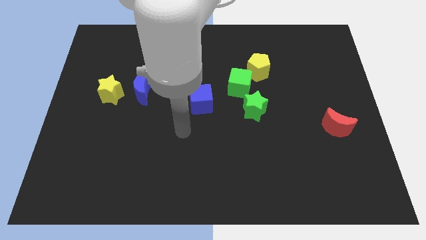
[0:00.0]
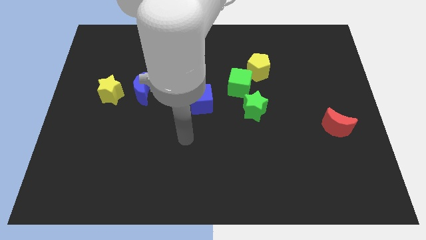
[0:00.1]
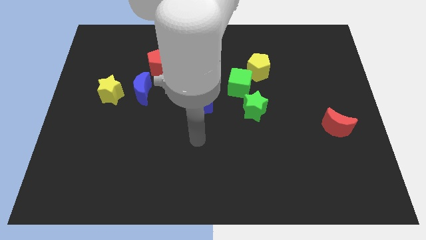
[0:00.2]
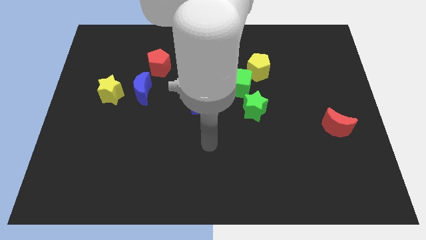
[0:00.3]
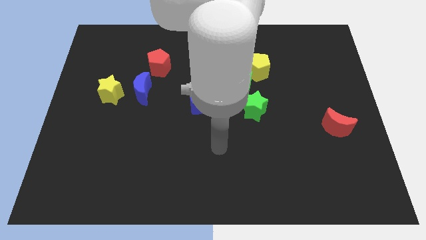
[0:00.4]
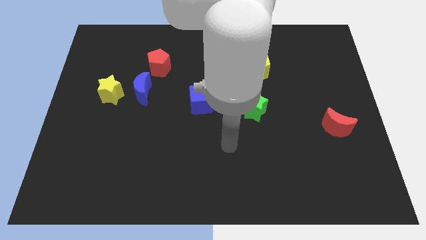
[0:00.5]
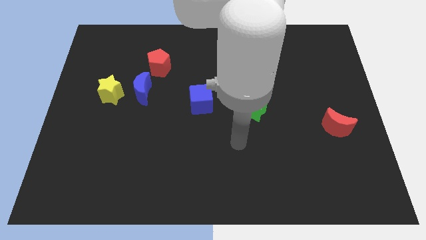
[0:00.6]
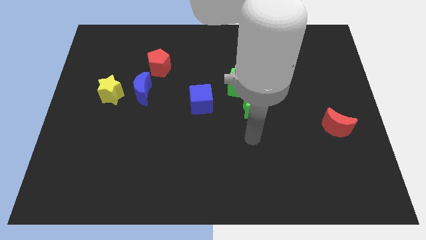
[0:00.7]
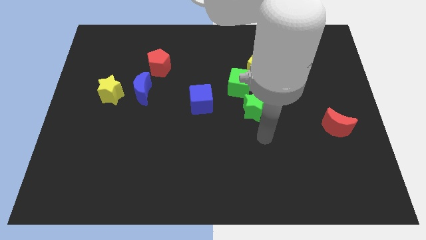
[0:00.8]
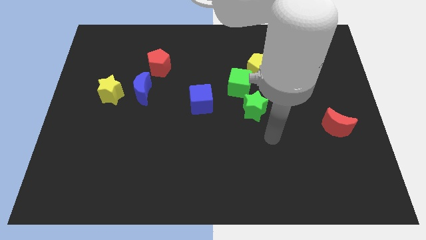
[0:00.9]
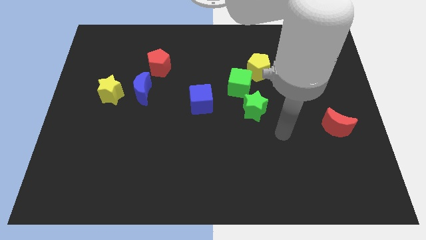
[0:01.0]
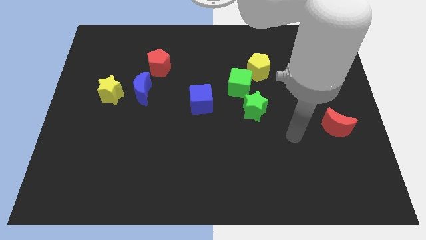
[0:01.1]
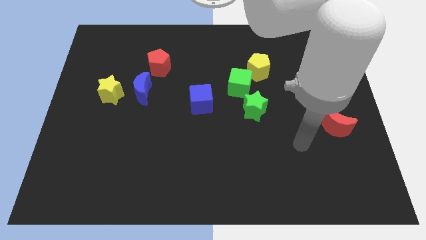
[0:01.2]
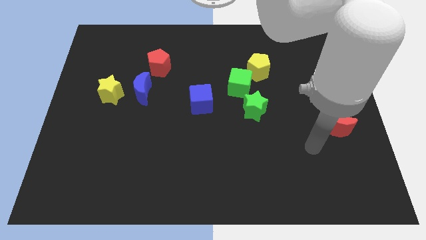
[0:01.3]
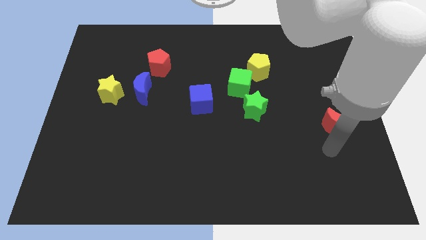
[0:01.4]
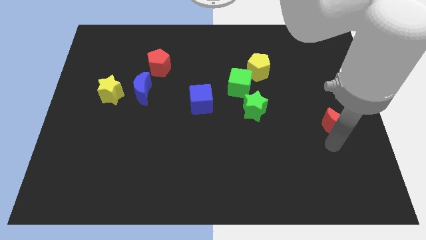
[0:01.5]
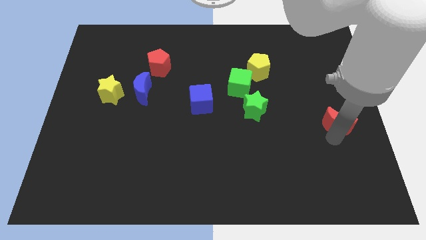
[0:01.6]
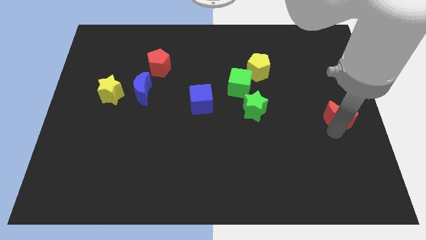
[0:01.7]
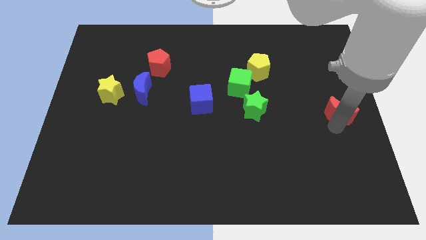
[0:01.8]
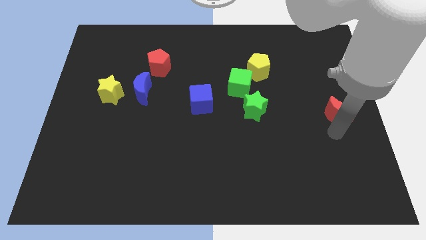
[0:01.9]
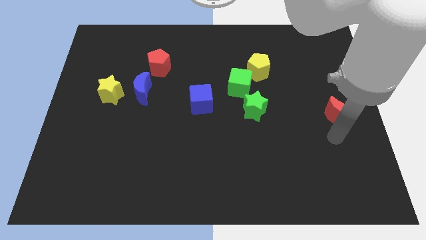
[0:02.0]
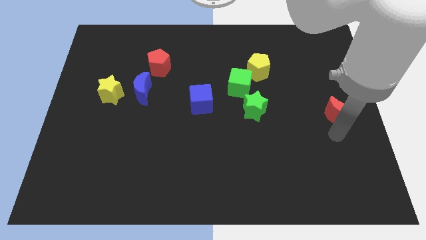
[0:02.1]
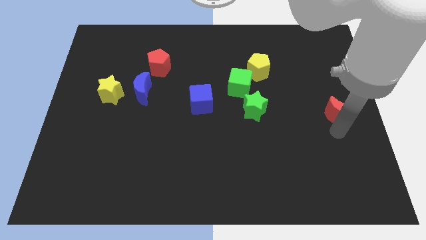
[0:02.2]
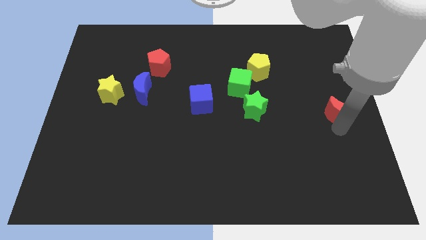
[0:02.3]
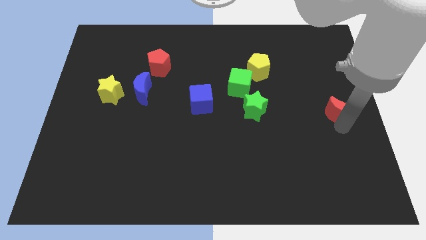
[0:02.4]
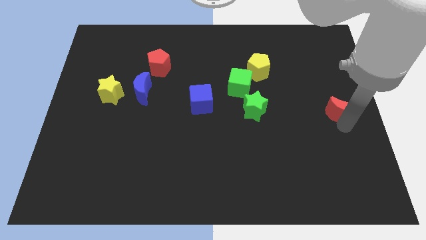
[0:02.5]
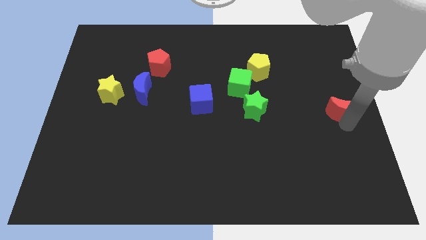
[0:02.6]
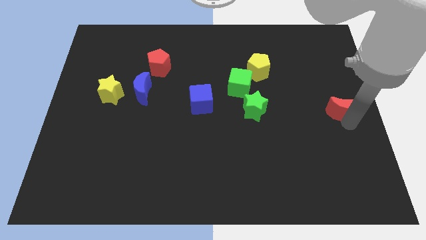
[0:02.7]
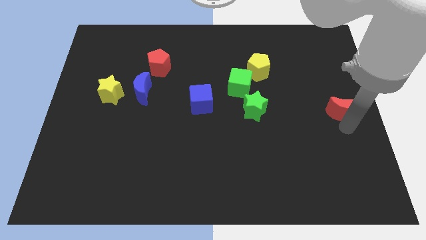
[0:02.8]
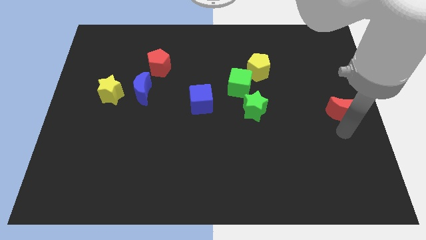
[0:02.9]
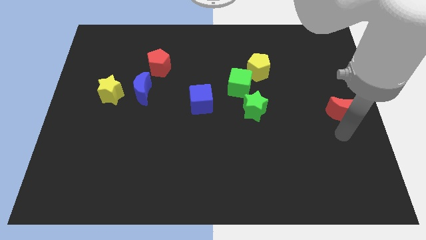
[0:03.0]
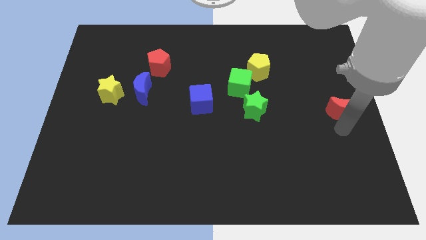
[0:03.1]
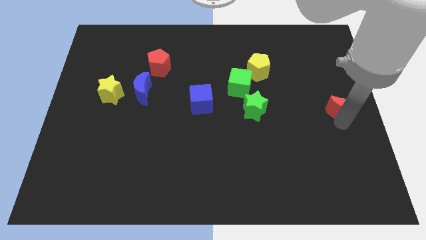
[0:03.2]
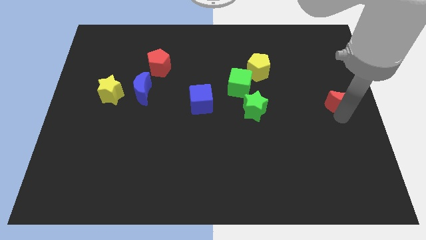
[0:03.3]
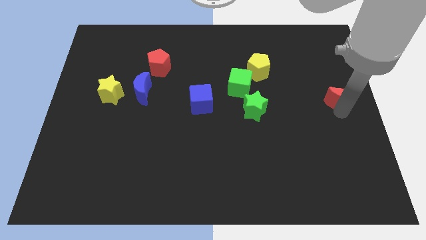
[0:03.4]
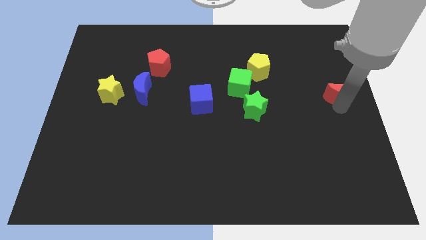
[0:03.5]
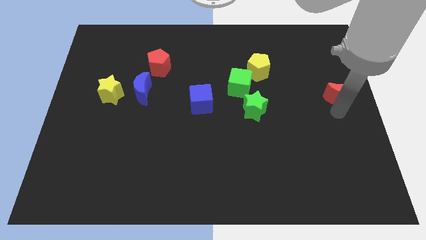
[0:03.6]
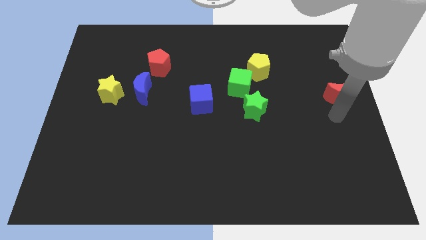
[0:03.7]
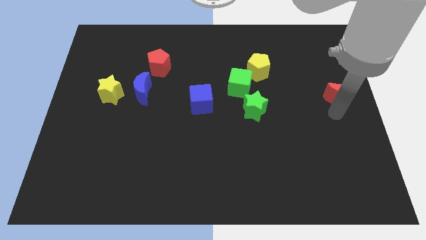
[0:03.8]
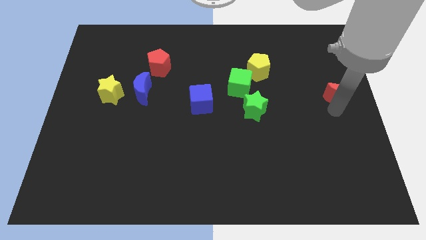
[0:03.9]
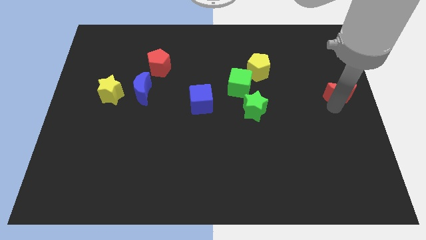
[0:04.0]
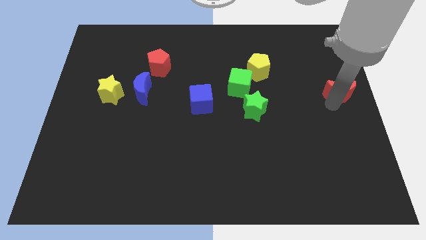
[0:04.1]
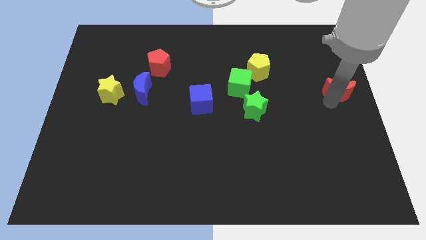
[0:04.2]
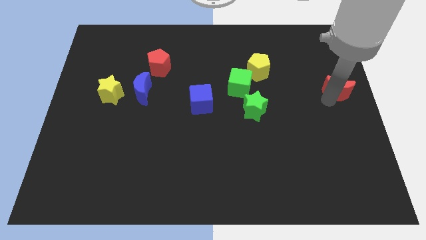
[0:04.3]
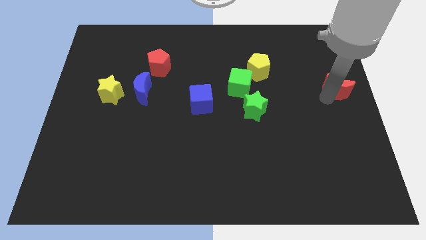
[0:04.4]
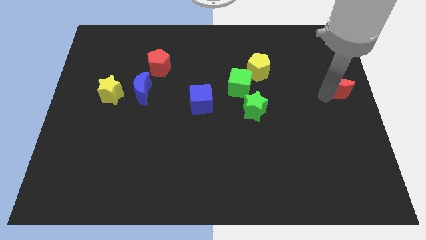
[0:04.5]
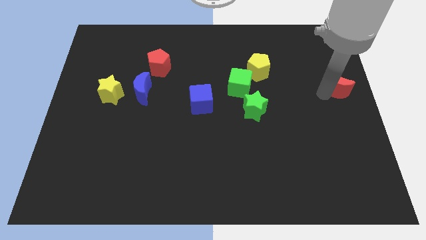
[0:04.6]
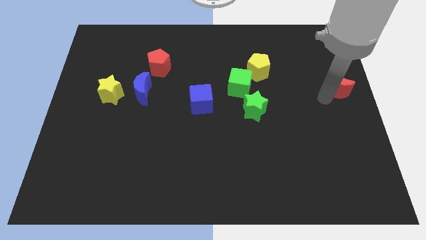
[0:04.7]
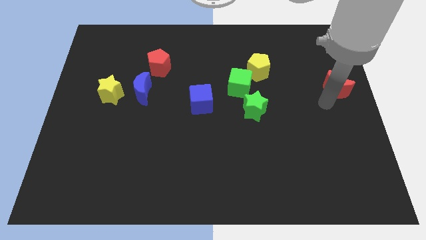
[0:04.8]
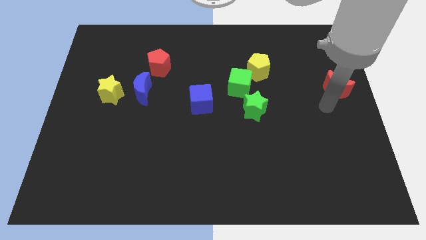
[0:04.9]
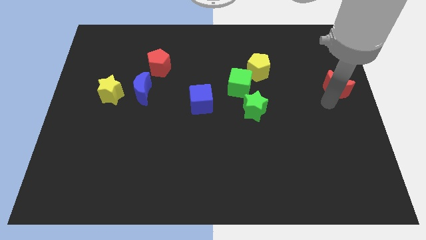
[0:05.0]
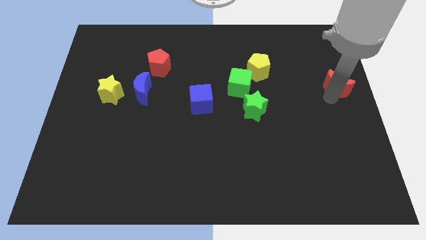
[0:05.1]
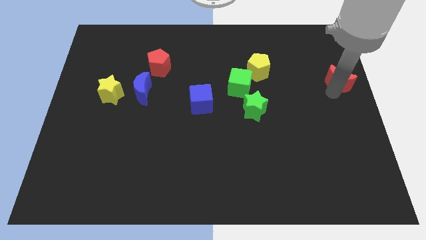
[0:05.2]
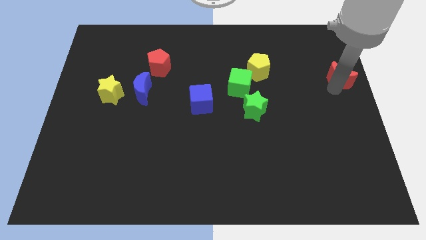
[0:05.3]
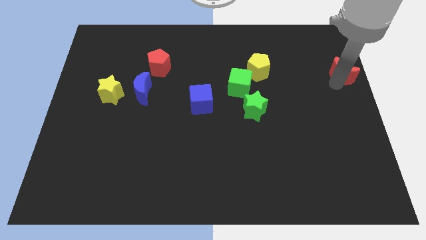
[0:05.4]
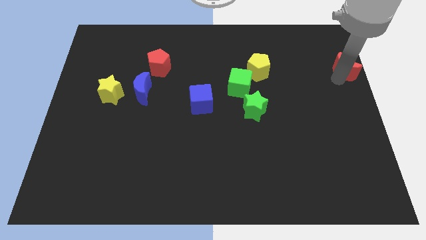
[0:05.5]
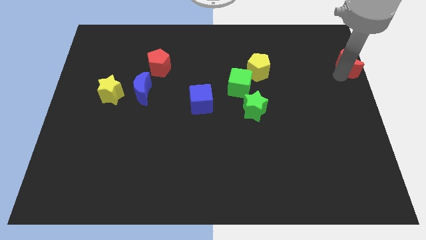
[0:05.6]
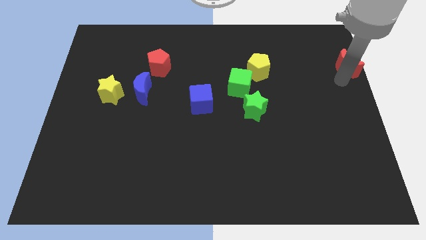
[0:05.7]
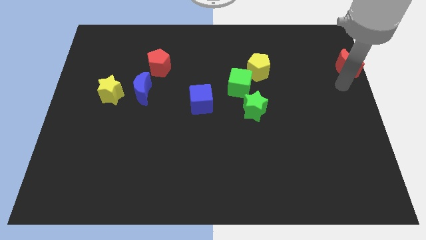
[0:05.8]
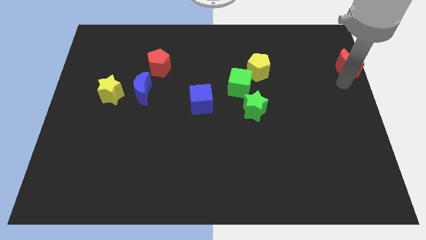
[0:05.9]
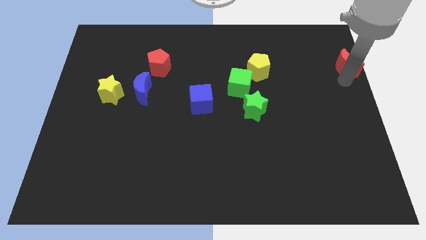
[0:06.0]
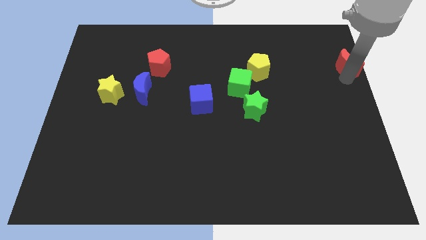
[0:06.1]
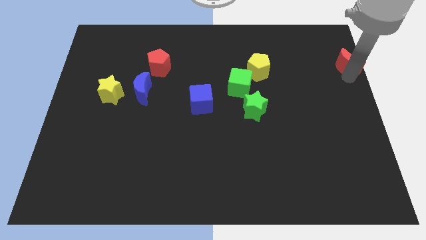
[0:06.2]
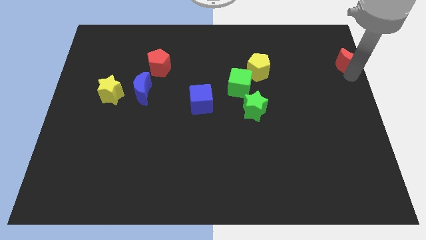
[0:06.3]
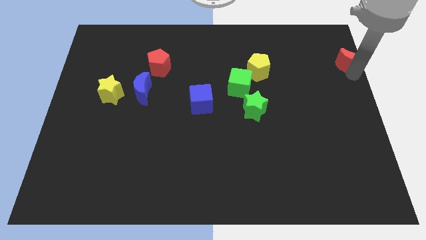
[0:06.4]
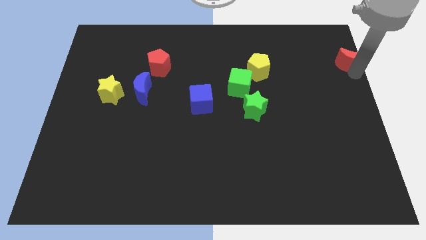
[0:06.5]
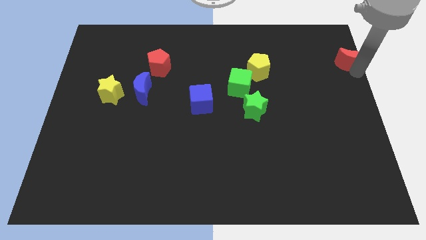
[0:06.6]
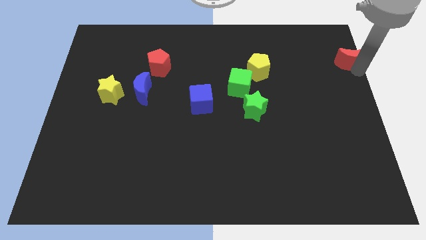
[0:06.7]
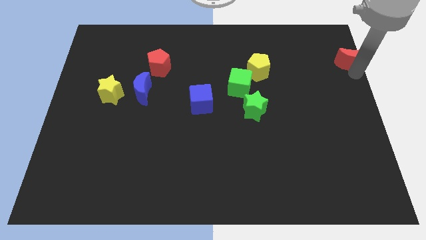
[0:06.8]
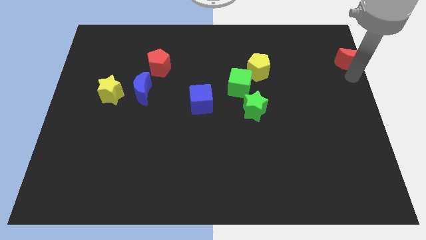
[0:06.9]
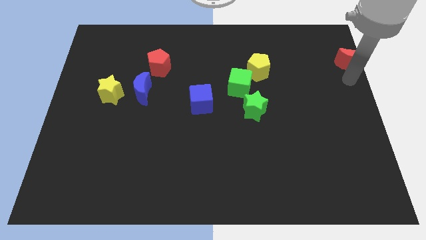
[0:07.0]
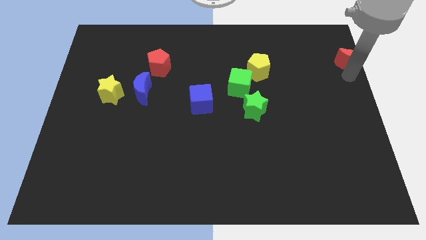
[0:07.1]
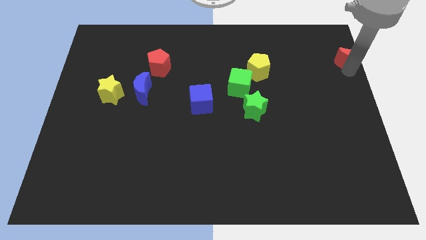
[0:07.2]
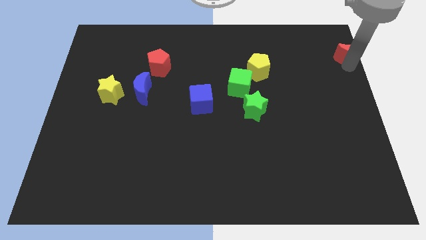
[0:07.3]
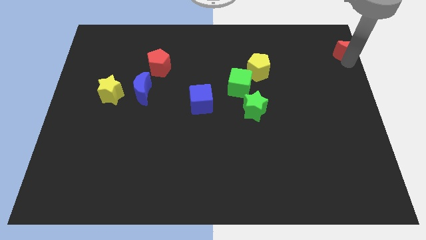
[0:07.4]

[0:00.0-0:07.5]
put the red moon to the top right of the board
